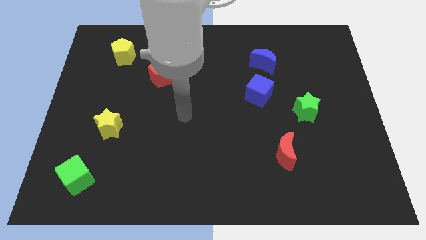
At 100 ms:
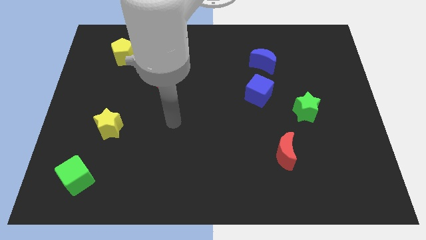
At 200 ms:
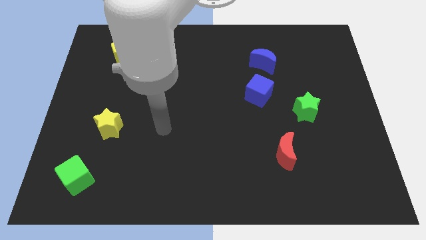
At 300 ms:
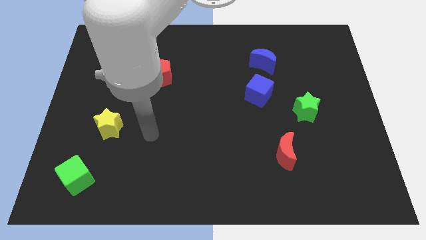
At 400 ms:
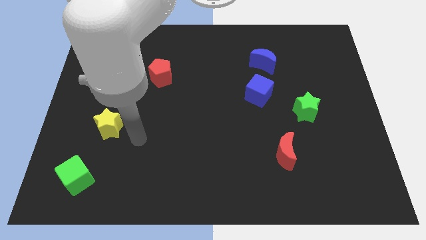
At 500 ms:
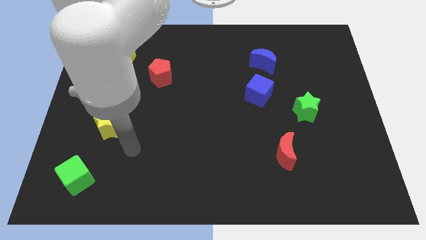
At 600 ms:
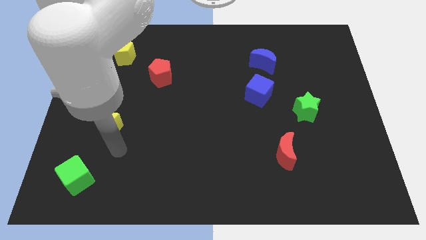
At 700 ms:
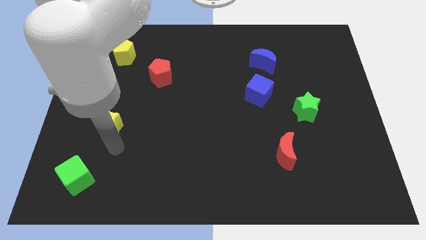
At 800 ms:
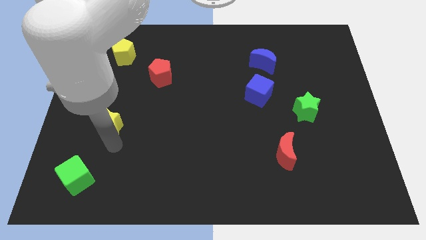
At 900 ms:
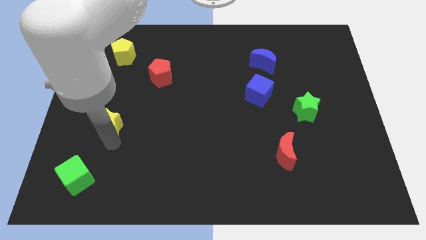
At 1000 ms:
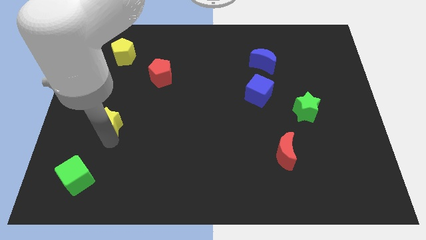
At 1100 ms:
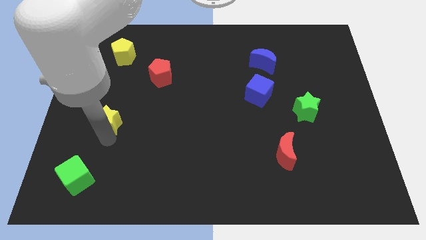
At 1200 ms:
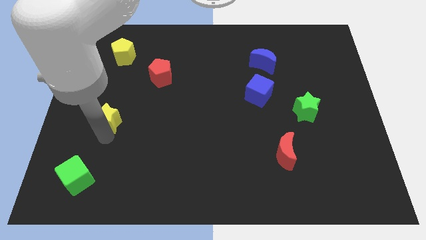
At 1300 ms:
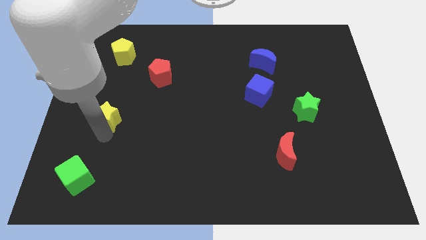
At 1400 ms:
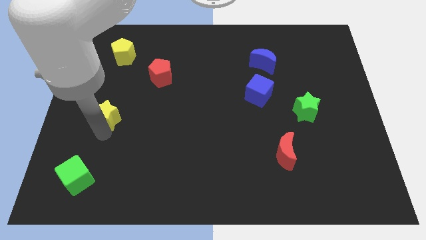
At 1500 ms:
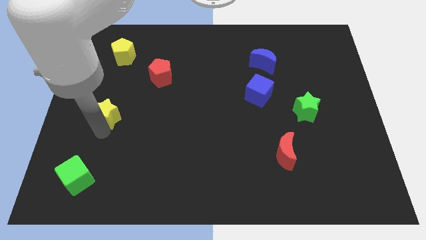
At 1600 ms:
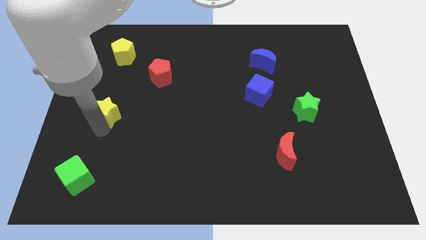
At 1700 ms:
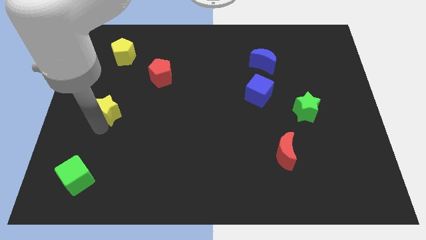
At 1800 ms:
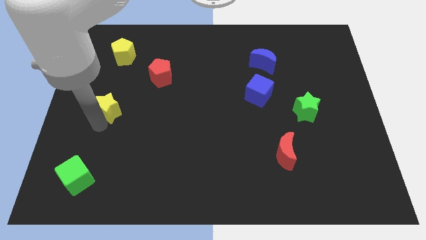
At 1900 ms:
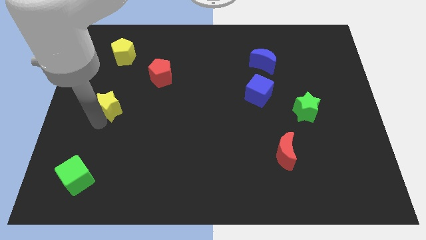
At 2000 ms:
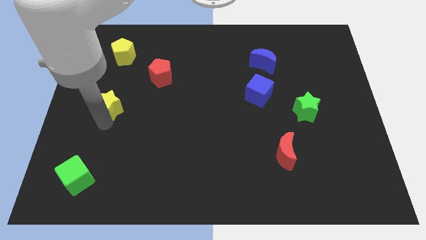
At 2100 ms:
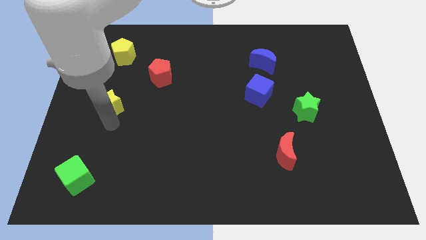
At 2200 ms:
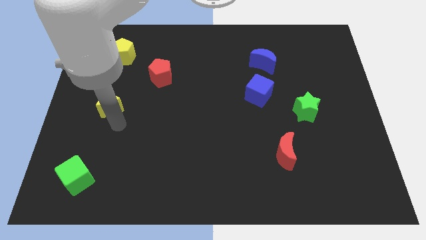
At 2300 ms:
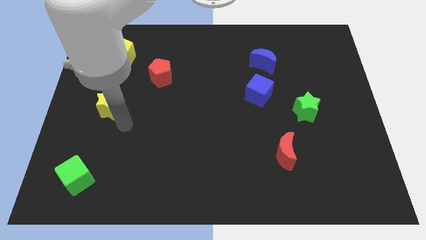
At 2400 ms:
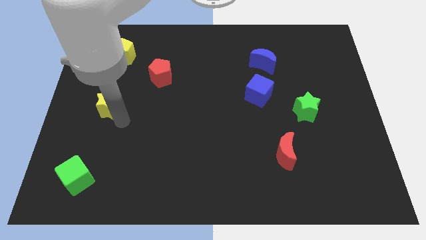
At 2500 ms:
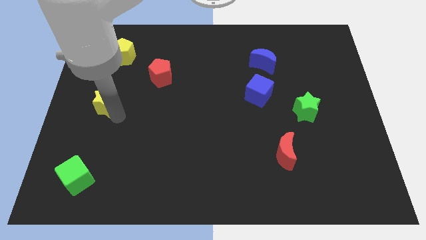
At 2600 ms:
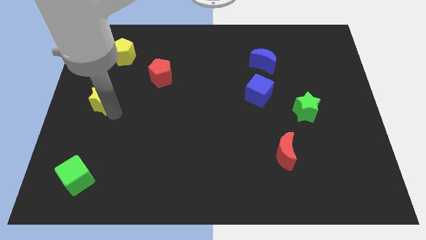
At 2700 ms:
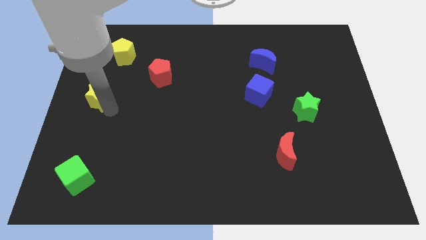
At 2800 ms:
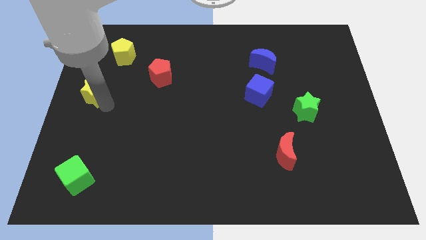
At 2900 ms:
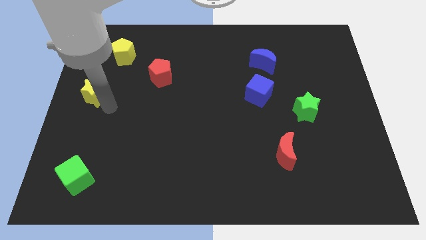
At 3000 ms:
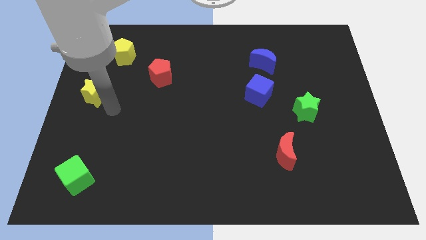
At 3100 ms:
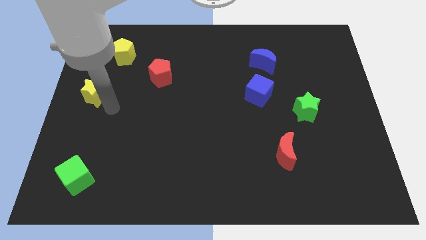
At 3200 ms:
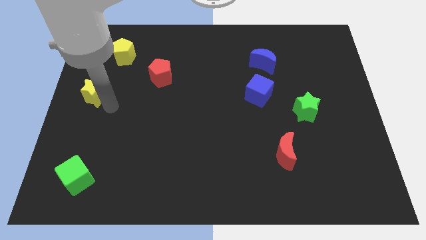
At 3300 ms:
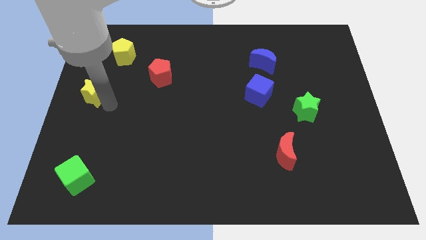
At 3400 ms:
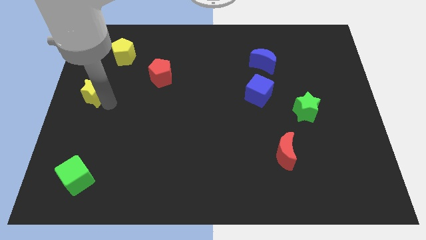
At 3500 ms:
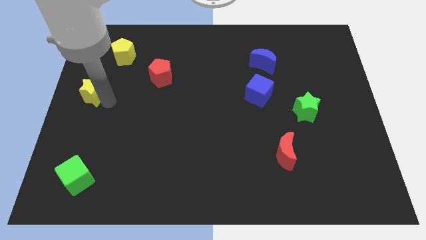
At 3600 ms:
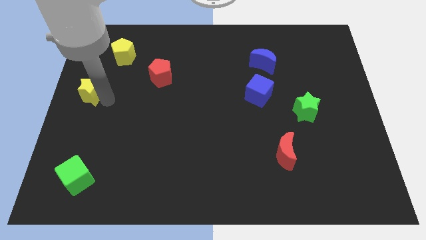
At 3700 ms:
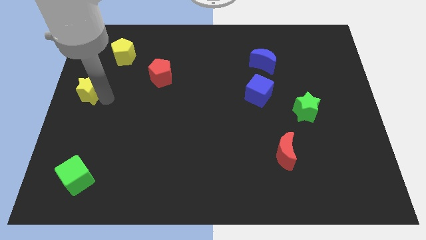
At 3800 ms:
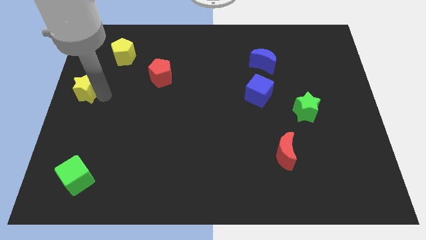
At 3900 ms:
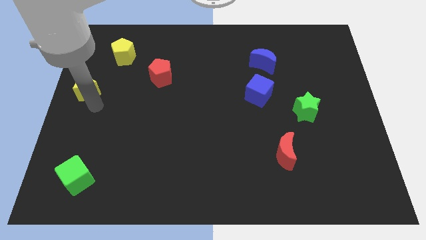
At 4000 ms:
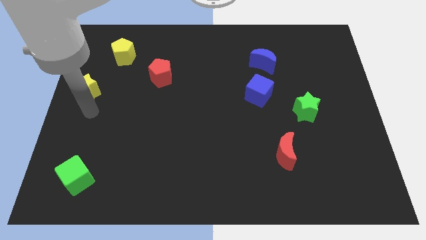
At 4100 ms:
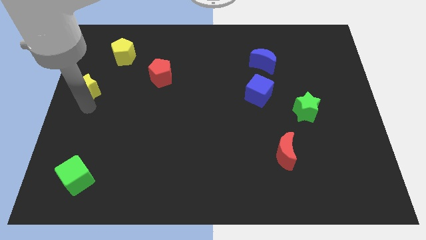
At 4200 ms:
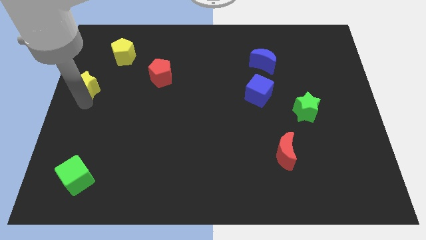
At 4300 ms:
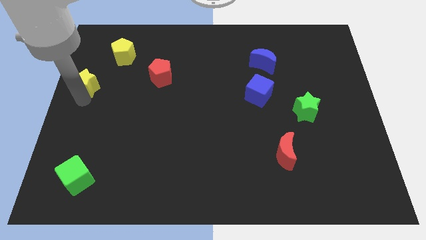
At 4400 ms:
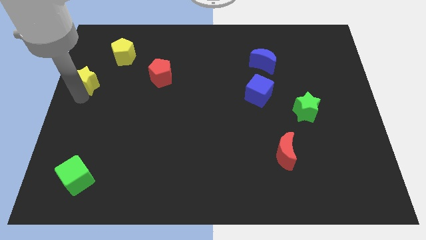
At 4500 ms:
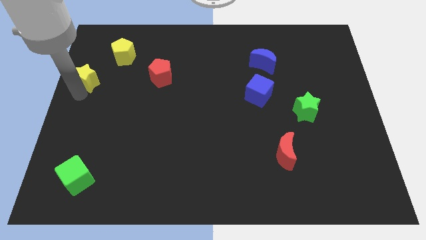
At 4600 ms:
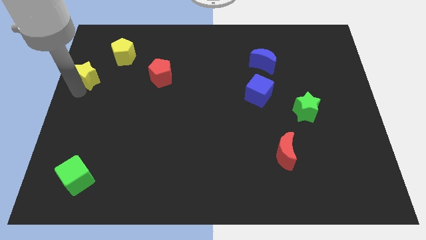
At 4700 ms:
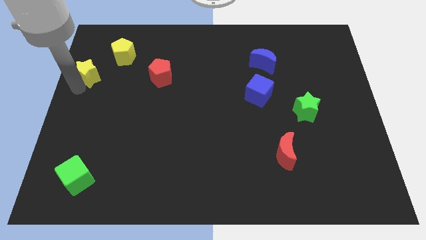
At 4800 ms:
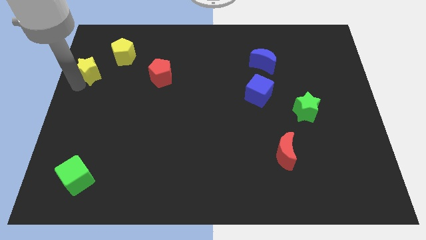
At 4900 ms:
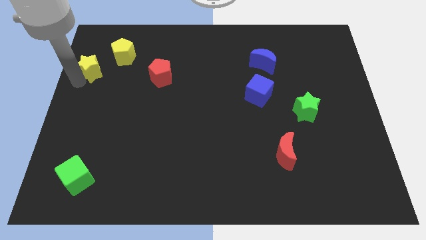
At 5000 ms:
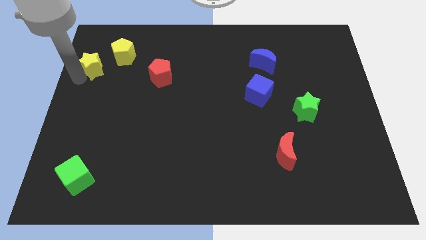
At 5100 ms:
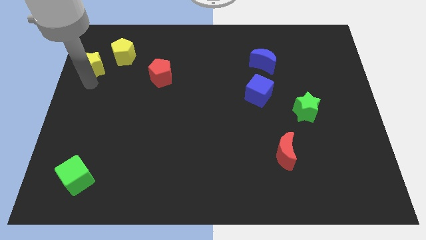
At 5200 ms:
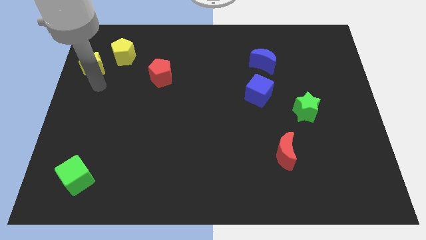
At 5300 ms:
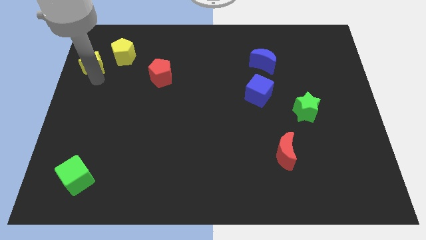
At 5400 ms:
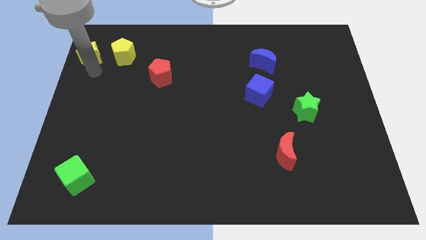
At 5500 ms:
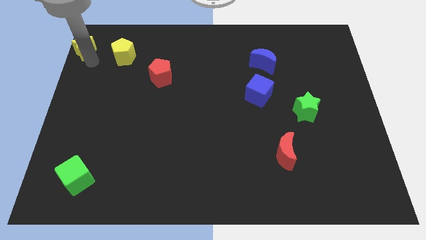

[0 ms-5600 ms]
move the yellow star to the top left corner
